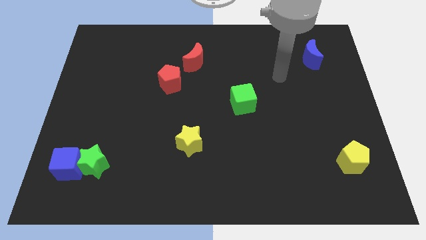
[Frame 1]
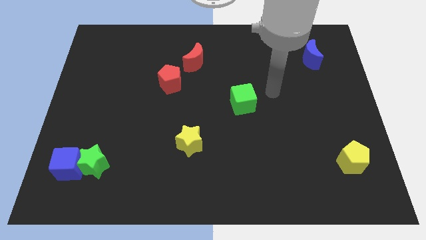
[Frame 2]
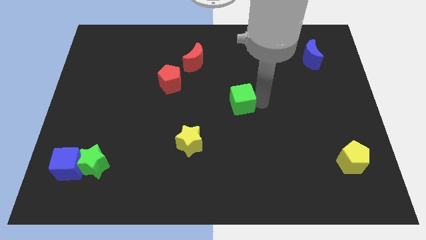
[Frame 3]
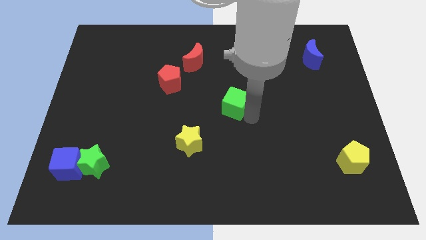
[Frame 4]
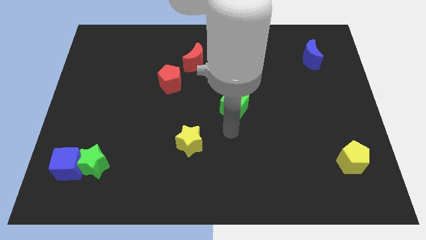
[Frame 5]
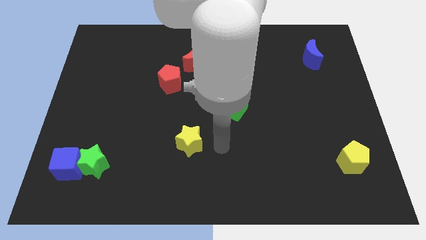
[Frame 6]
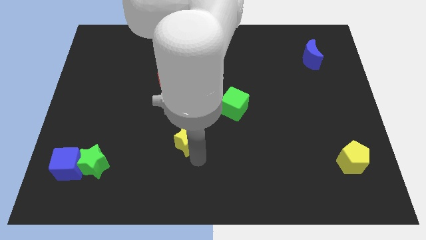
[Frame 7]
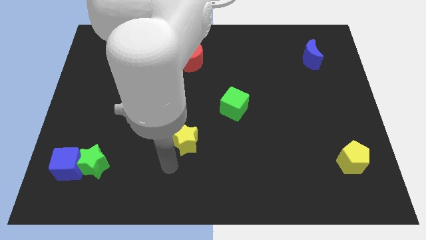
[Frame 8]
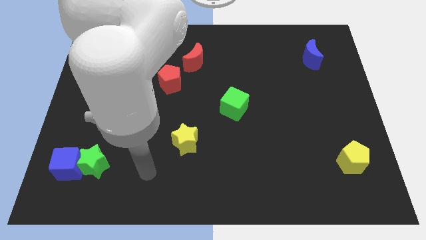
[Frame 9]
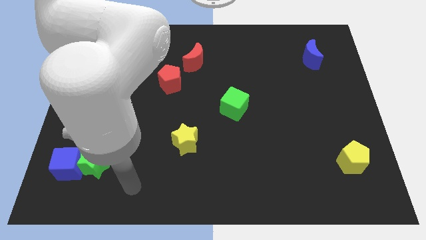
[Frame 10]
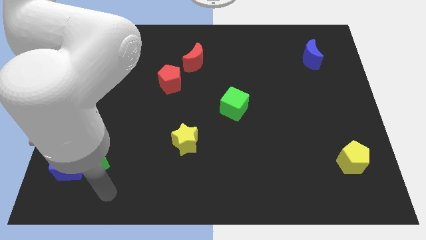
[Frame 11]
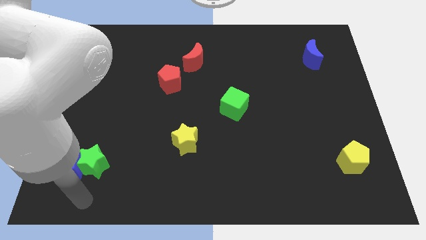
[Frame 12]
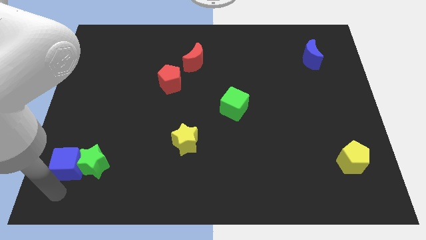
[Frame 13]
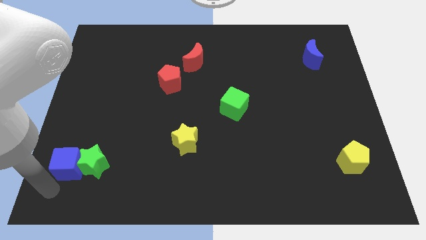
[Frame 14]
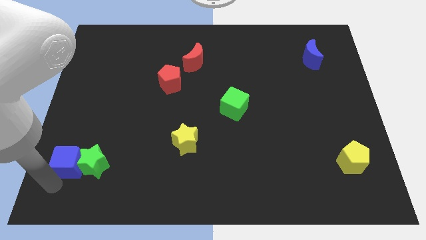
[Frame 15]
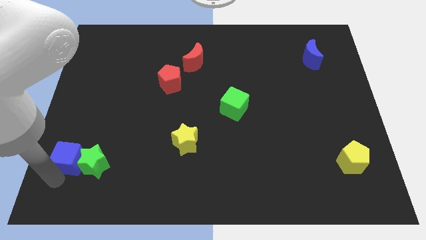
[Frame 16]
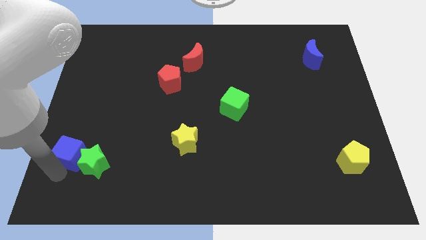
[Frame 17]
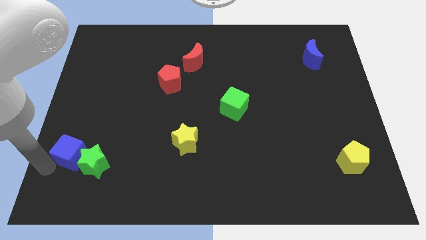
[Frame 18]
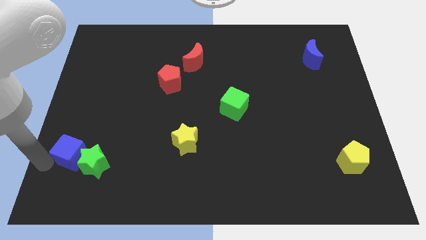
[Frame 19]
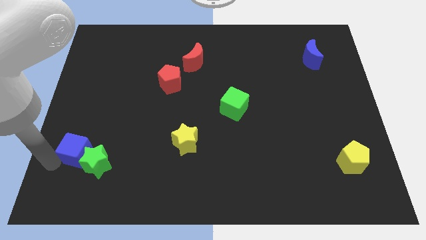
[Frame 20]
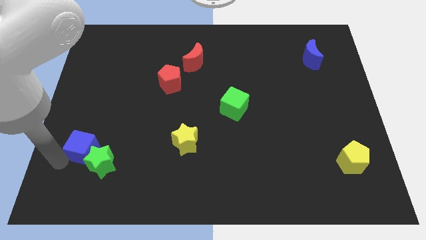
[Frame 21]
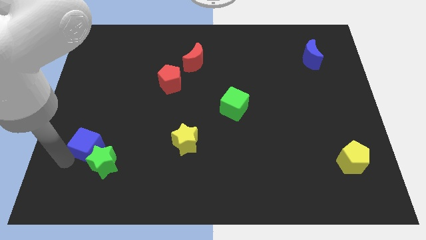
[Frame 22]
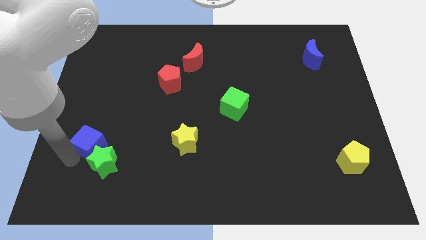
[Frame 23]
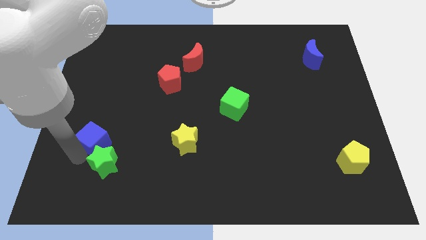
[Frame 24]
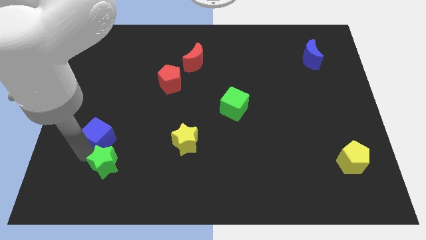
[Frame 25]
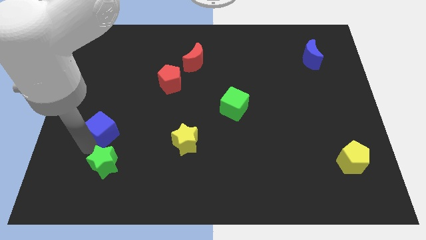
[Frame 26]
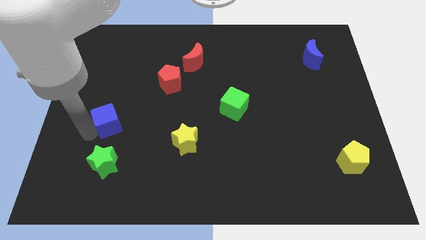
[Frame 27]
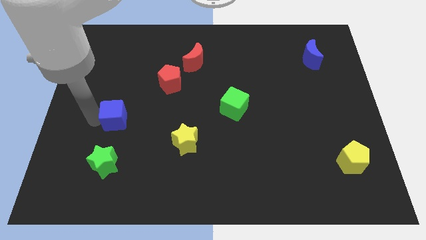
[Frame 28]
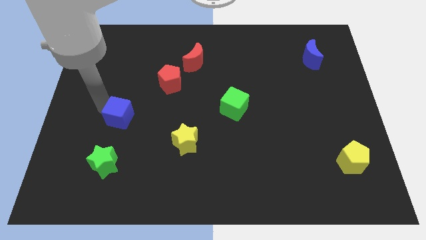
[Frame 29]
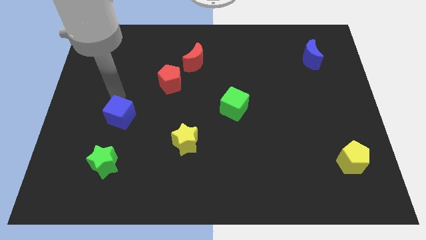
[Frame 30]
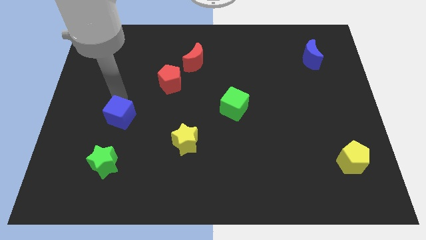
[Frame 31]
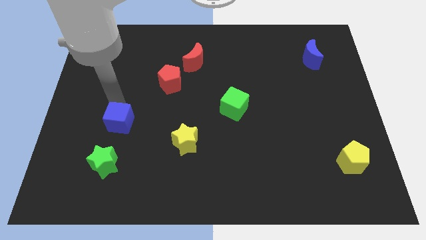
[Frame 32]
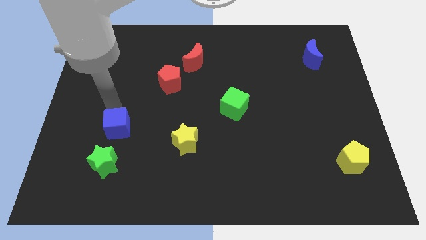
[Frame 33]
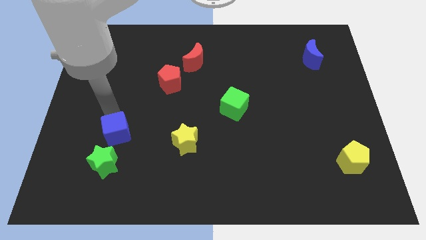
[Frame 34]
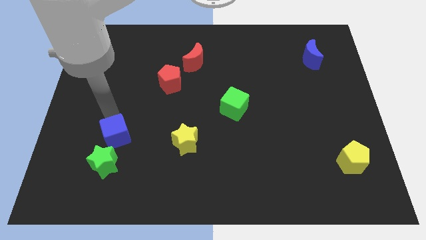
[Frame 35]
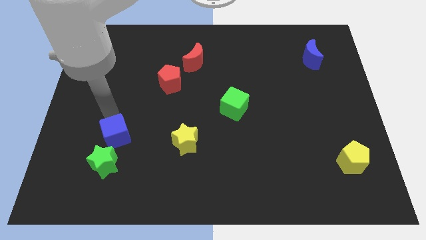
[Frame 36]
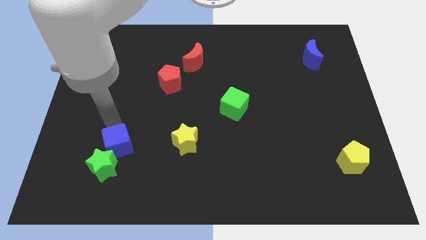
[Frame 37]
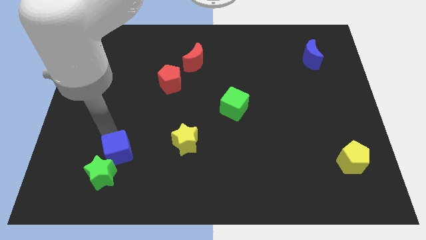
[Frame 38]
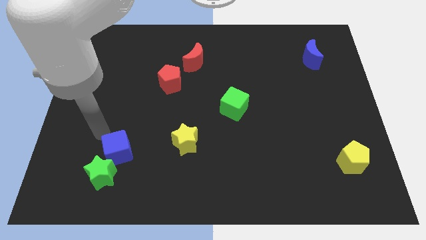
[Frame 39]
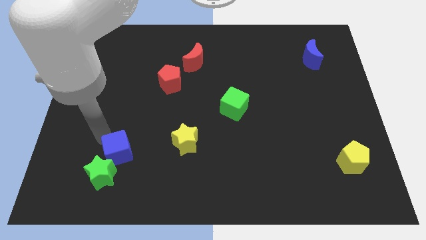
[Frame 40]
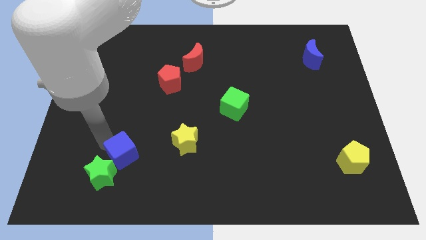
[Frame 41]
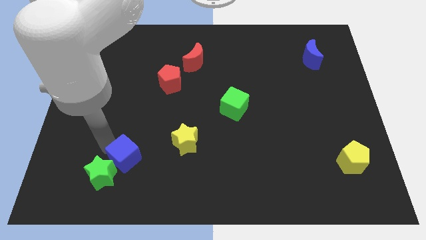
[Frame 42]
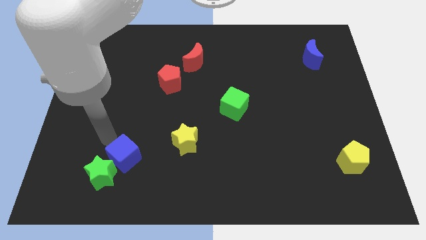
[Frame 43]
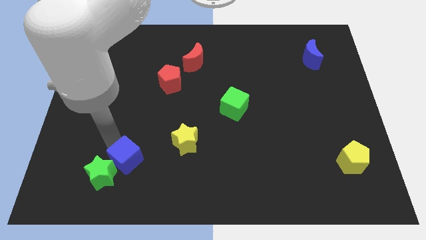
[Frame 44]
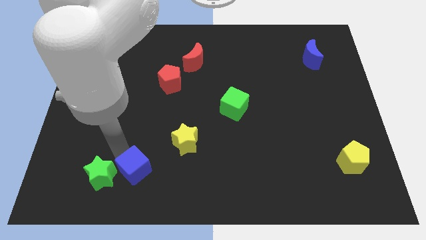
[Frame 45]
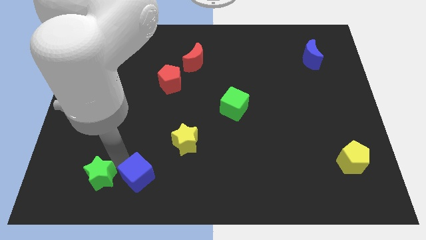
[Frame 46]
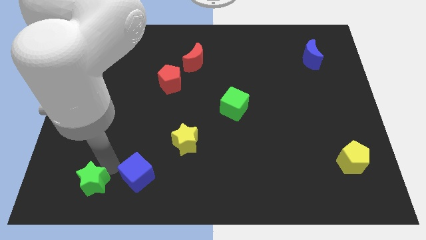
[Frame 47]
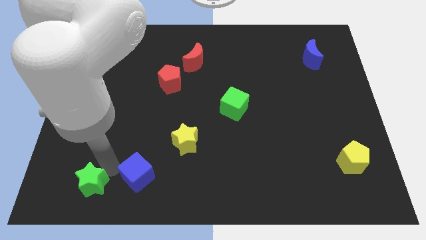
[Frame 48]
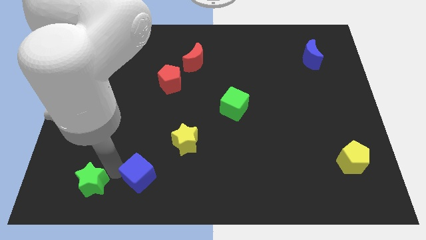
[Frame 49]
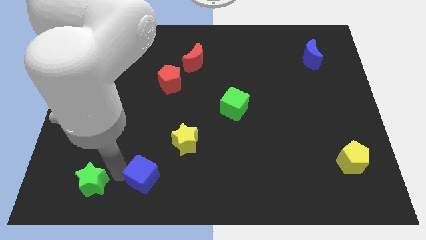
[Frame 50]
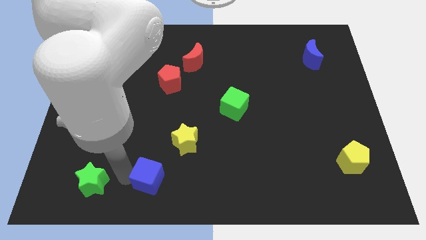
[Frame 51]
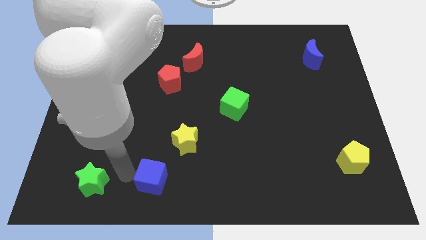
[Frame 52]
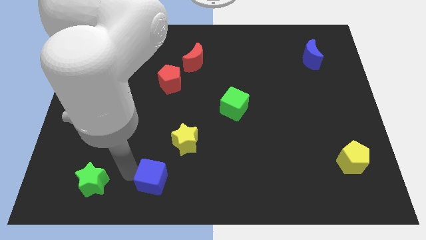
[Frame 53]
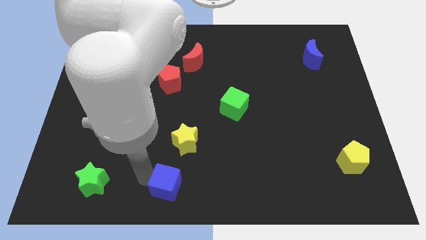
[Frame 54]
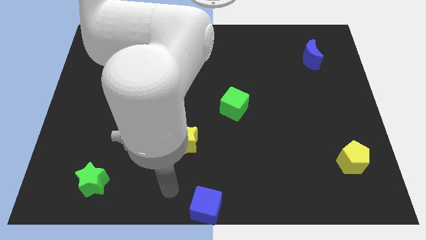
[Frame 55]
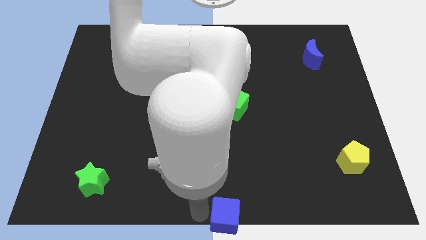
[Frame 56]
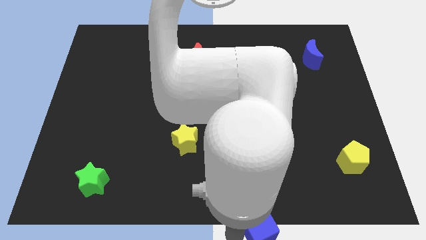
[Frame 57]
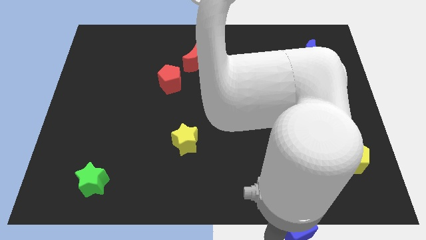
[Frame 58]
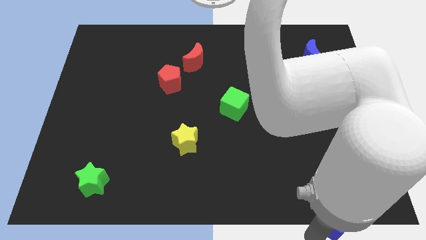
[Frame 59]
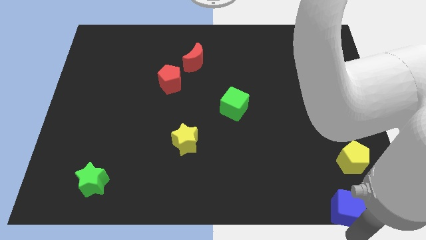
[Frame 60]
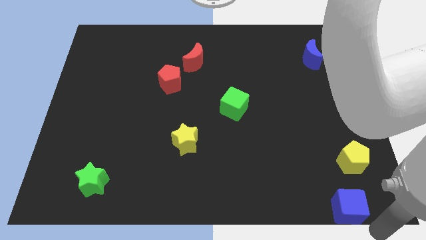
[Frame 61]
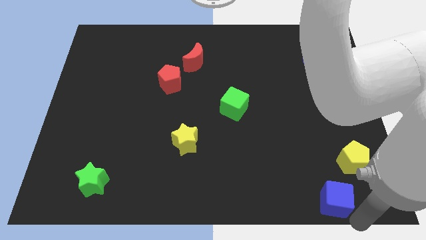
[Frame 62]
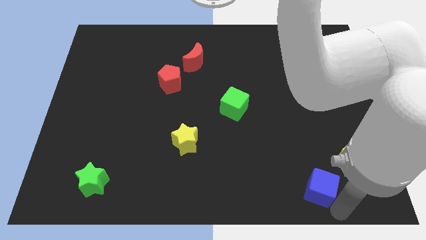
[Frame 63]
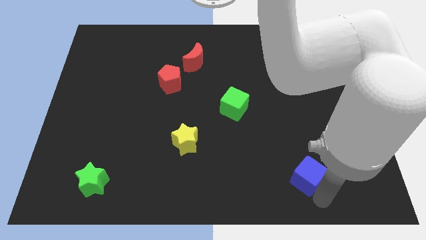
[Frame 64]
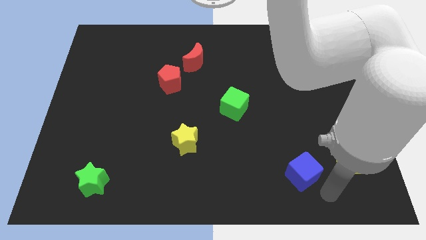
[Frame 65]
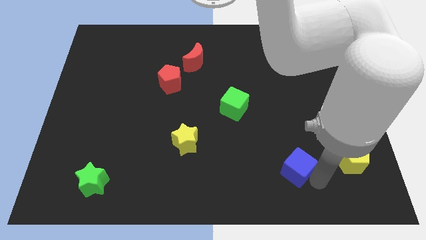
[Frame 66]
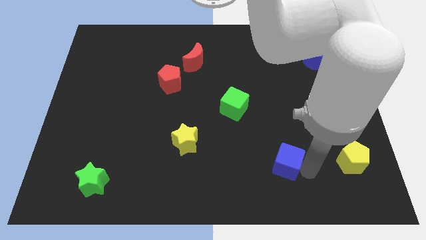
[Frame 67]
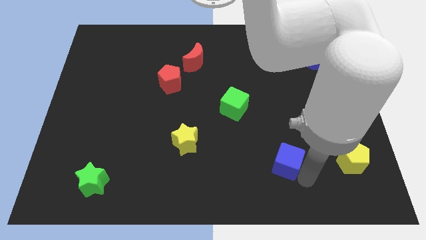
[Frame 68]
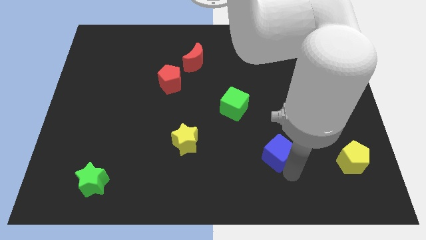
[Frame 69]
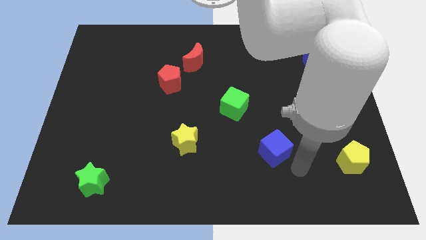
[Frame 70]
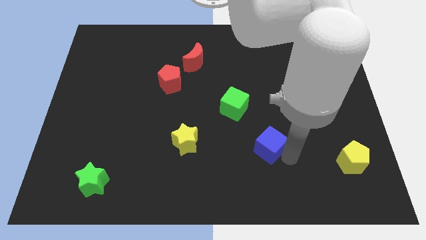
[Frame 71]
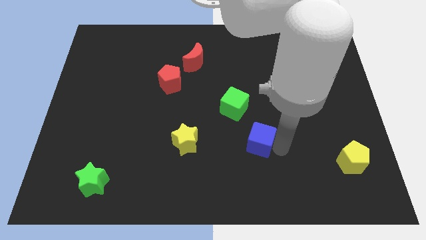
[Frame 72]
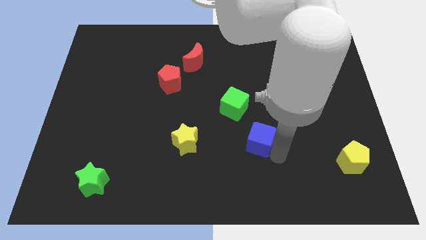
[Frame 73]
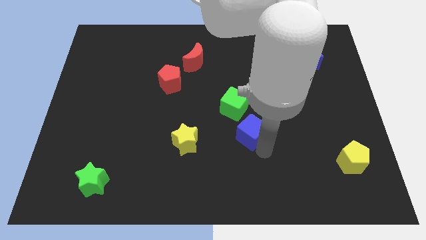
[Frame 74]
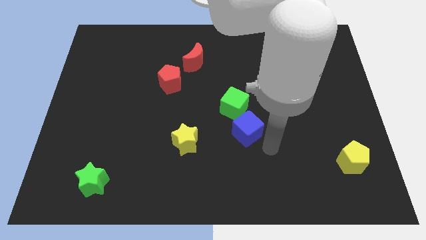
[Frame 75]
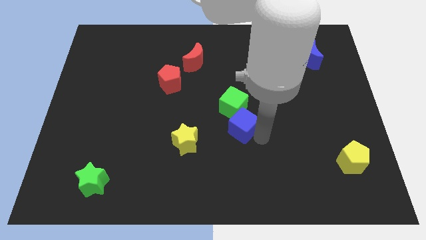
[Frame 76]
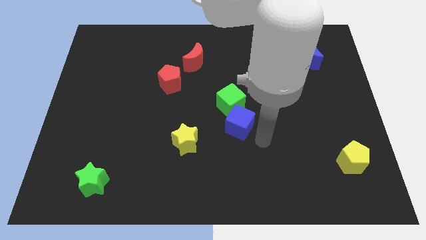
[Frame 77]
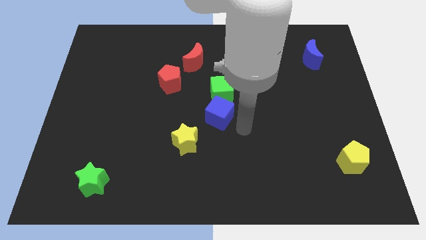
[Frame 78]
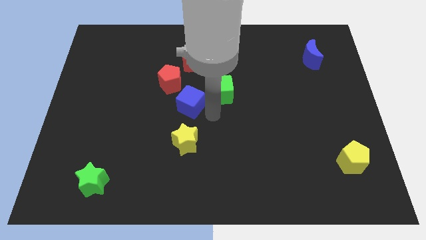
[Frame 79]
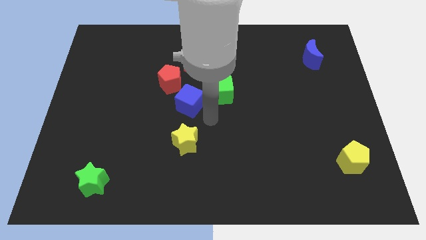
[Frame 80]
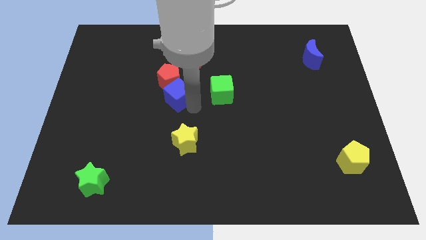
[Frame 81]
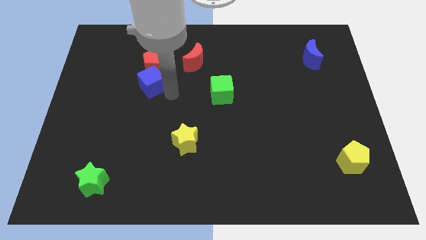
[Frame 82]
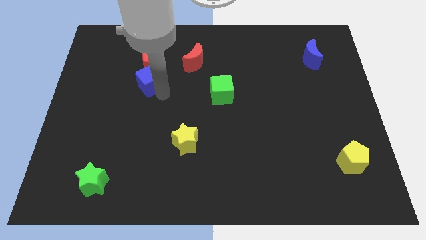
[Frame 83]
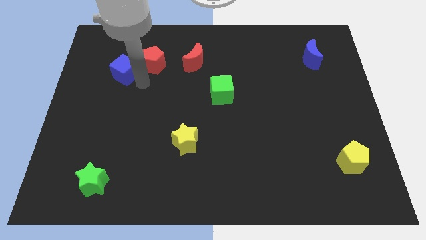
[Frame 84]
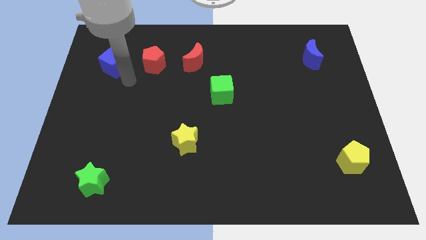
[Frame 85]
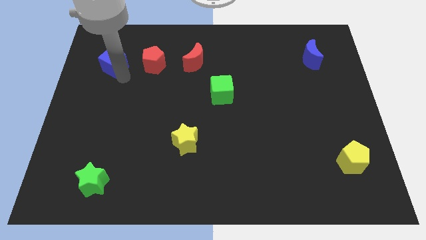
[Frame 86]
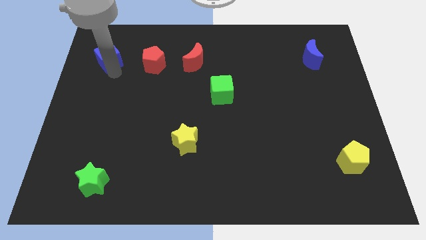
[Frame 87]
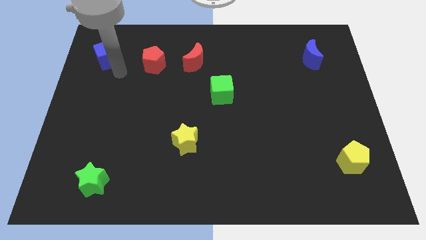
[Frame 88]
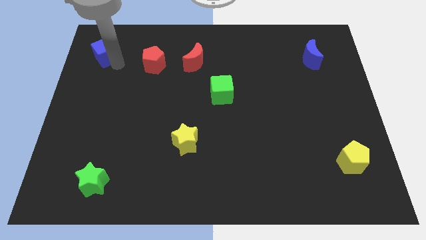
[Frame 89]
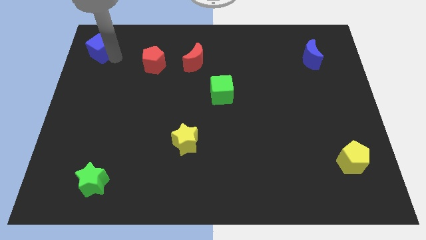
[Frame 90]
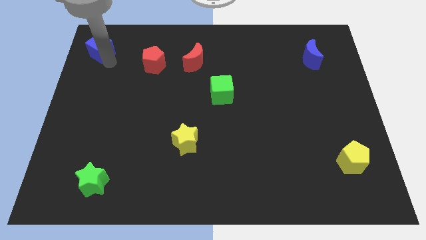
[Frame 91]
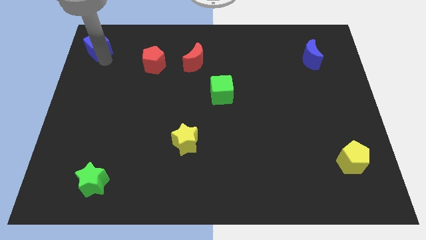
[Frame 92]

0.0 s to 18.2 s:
slide the blue cube to the top left
